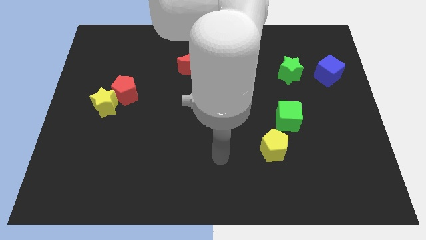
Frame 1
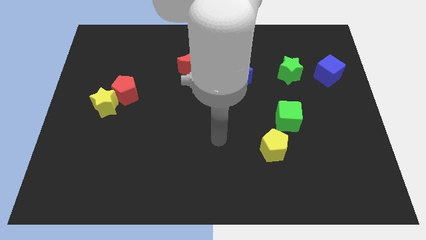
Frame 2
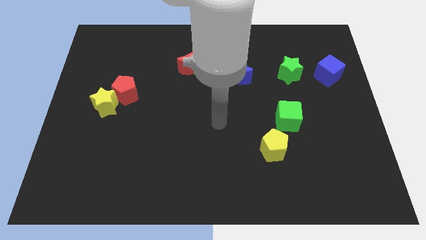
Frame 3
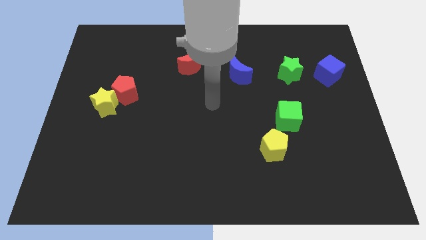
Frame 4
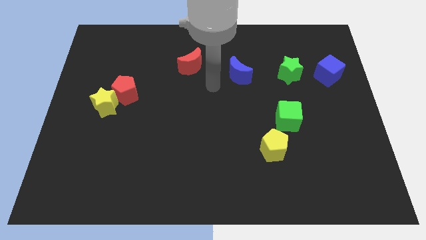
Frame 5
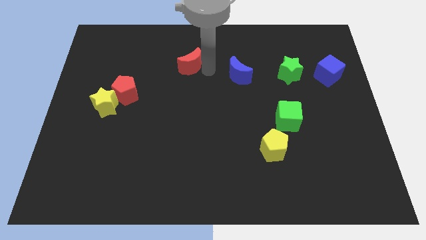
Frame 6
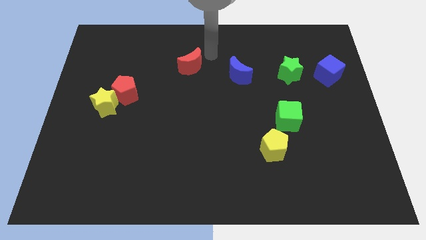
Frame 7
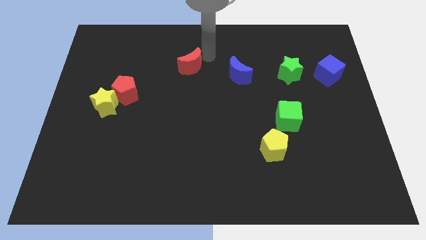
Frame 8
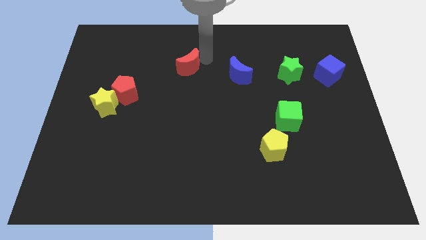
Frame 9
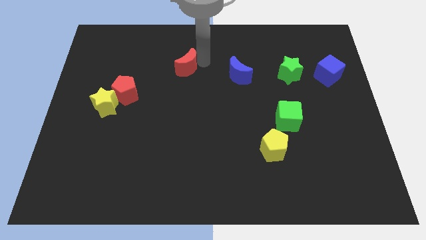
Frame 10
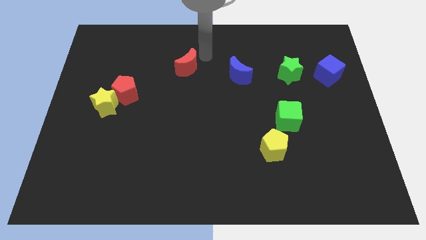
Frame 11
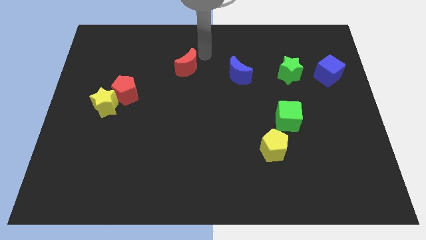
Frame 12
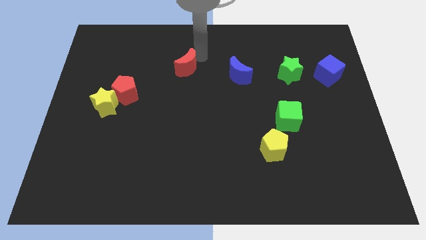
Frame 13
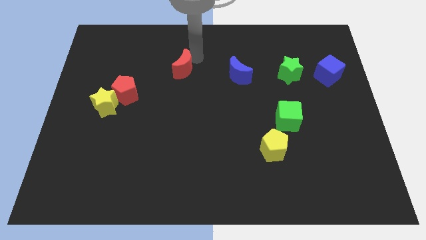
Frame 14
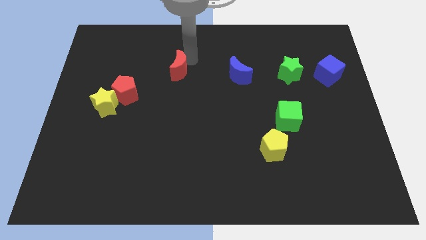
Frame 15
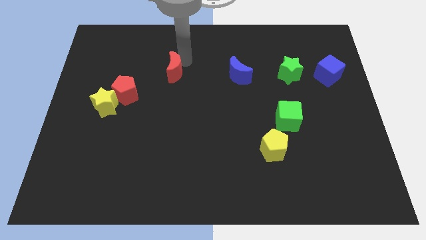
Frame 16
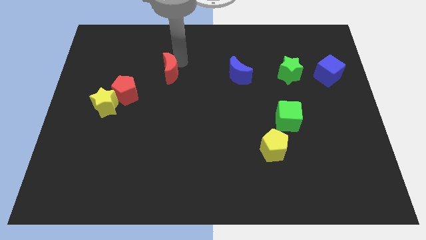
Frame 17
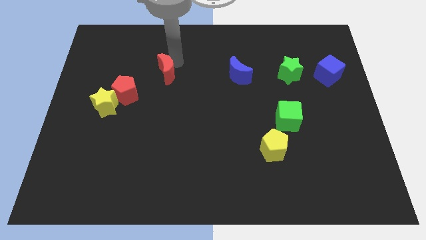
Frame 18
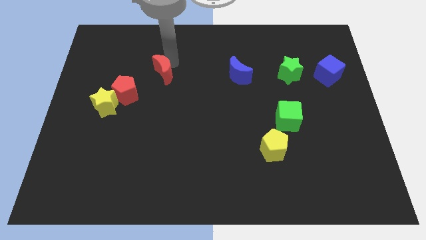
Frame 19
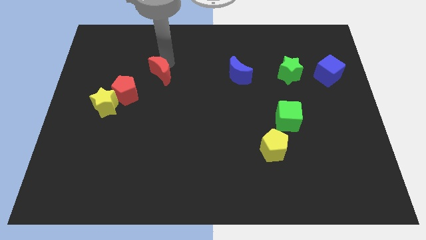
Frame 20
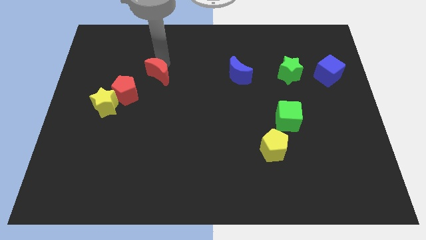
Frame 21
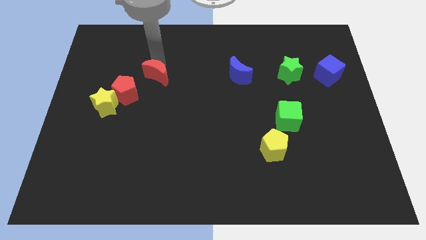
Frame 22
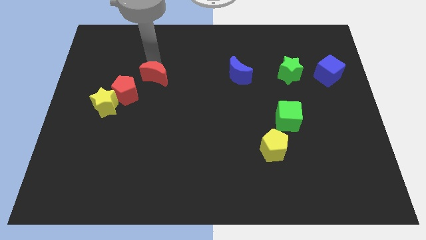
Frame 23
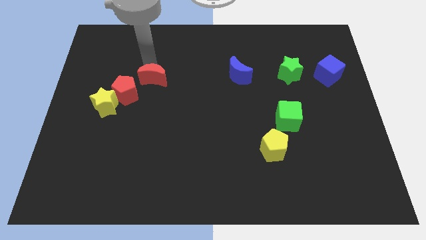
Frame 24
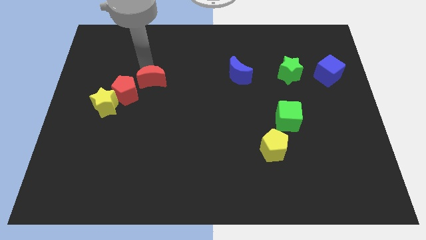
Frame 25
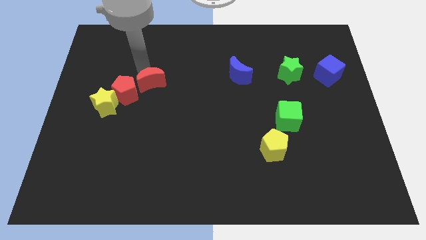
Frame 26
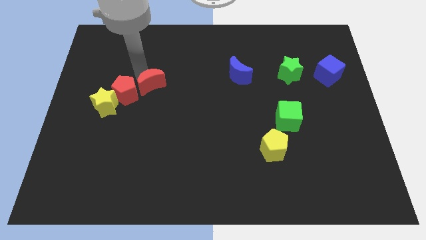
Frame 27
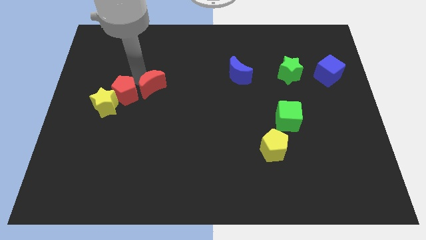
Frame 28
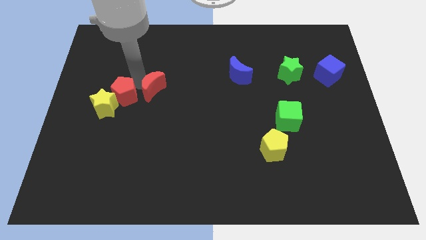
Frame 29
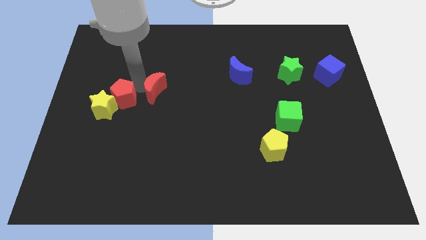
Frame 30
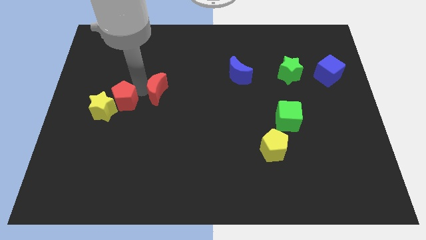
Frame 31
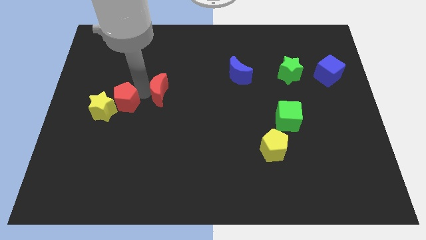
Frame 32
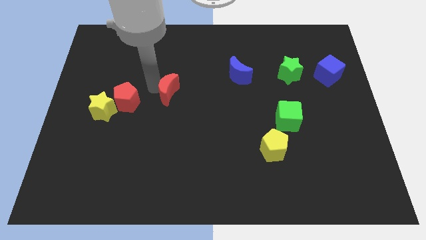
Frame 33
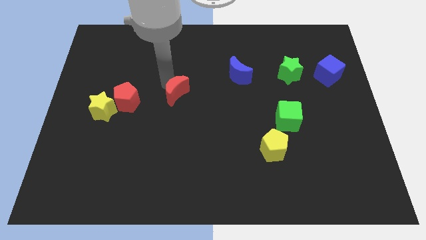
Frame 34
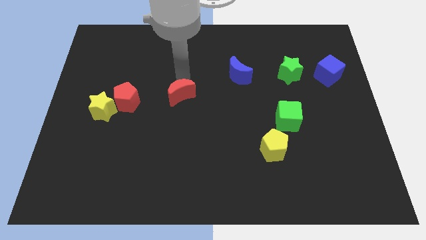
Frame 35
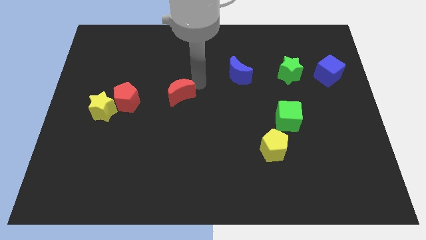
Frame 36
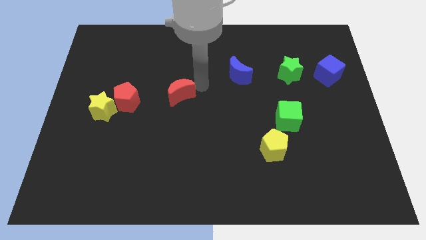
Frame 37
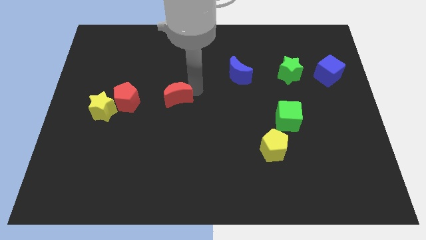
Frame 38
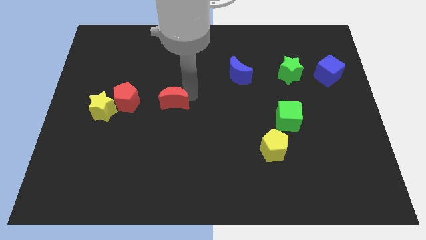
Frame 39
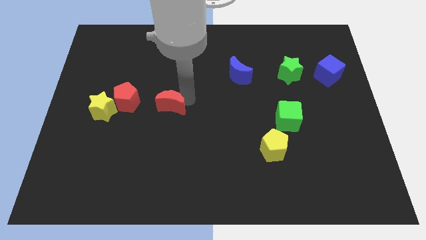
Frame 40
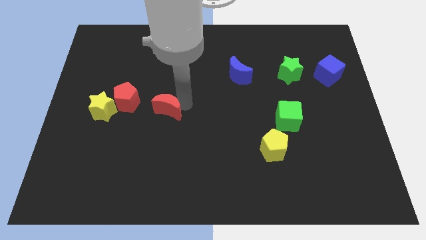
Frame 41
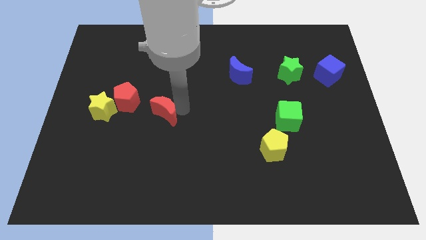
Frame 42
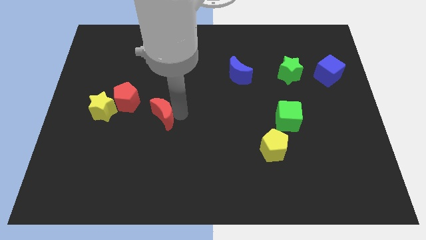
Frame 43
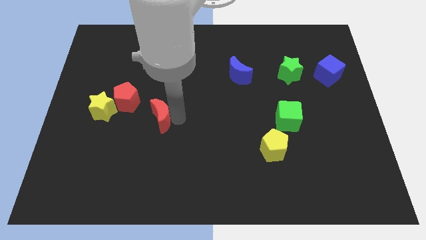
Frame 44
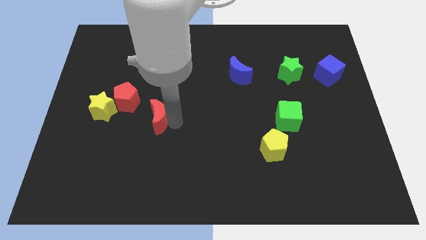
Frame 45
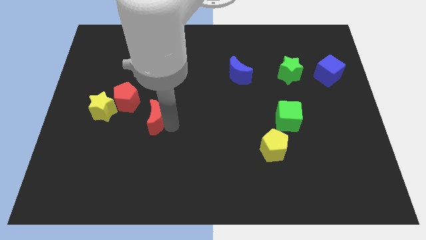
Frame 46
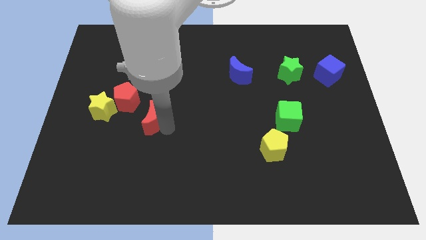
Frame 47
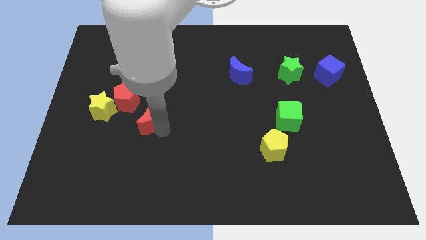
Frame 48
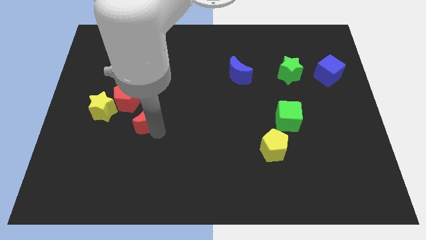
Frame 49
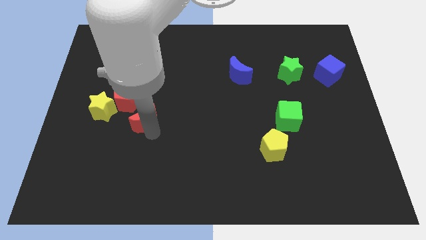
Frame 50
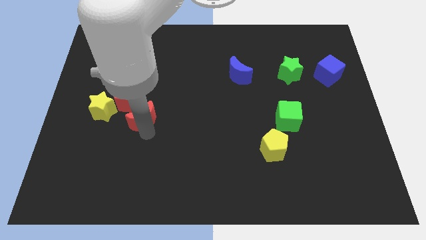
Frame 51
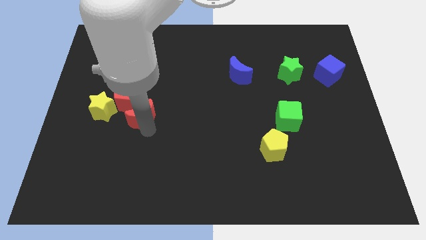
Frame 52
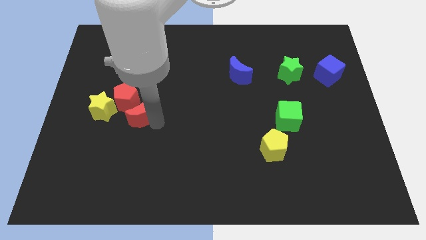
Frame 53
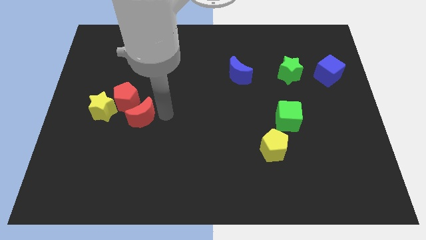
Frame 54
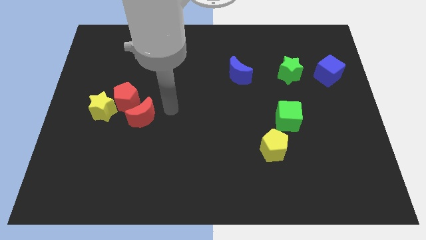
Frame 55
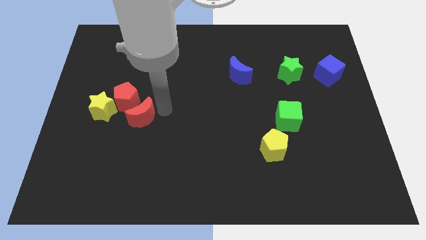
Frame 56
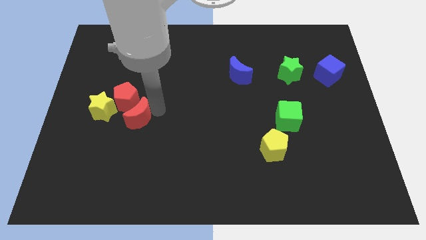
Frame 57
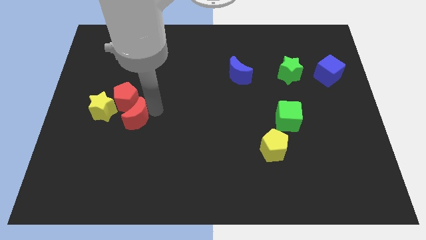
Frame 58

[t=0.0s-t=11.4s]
slide the red moon down and then left

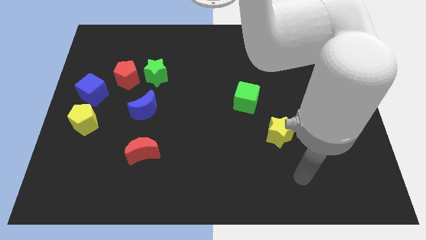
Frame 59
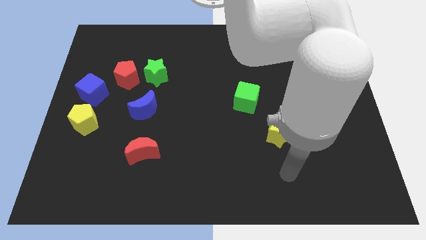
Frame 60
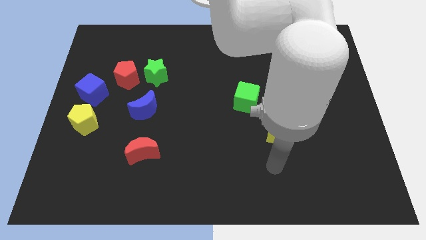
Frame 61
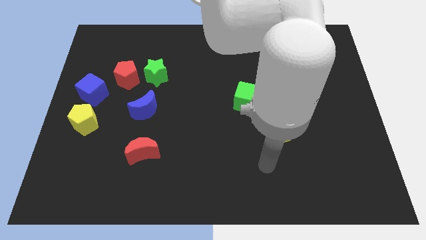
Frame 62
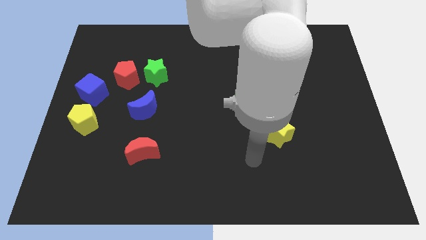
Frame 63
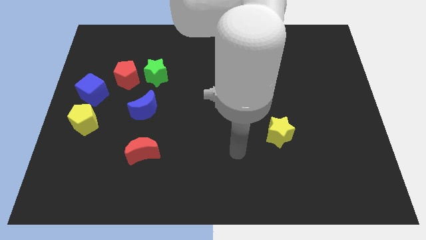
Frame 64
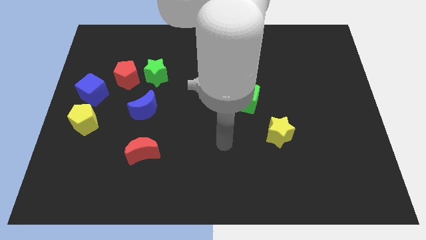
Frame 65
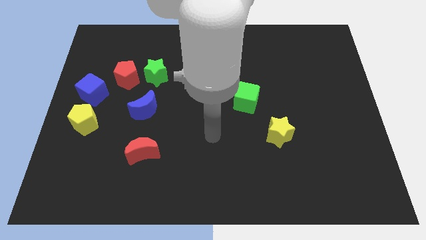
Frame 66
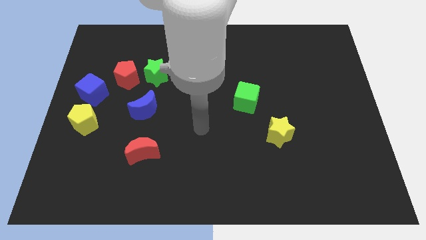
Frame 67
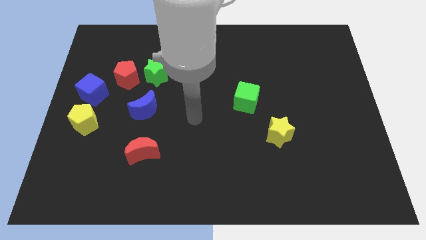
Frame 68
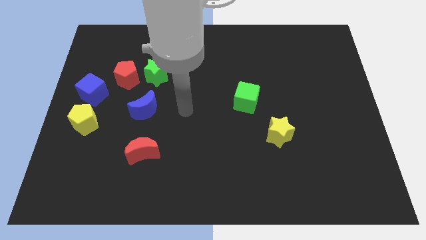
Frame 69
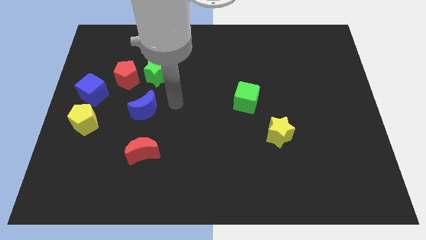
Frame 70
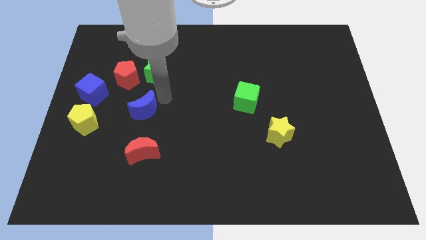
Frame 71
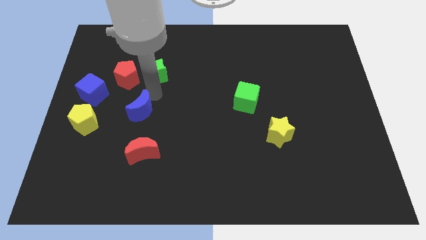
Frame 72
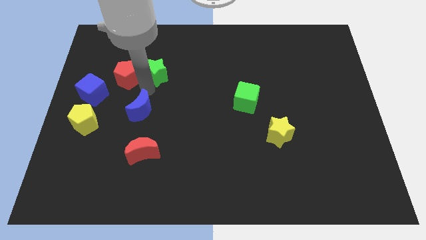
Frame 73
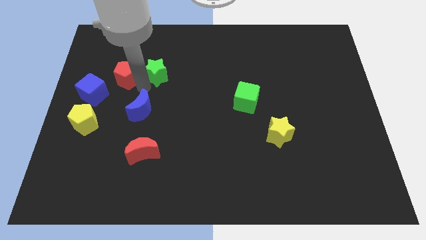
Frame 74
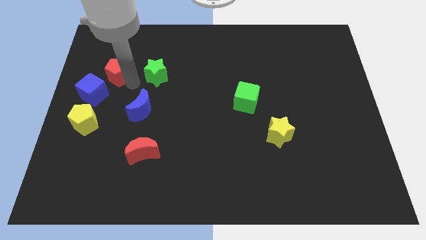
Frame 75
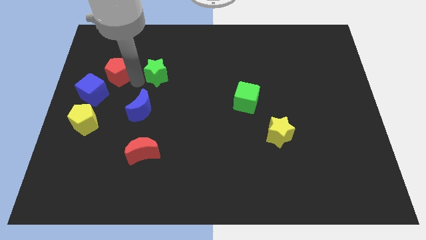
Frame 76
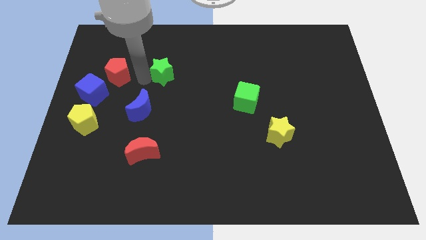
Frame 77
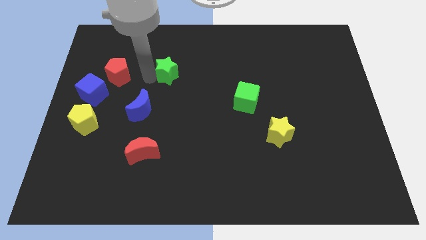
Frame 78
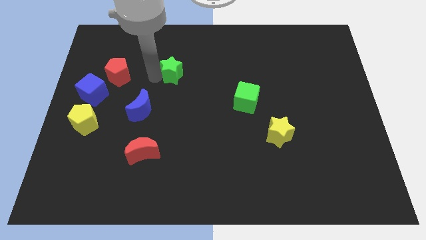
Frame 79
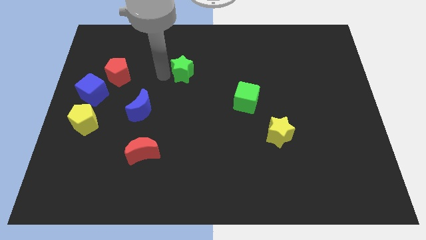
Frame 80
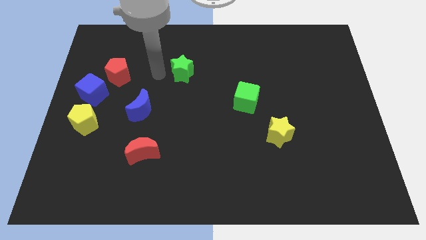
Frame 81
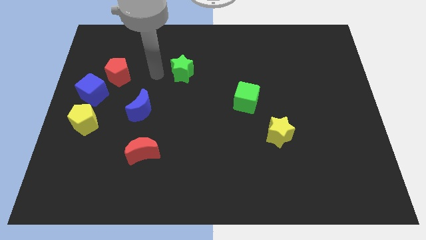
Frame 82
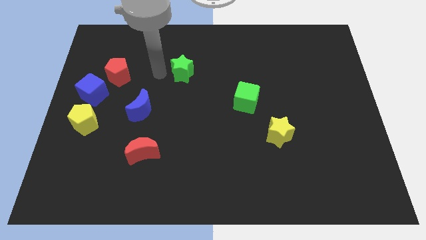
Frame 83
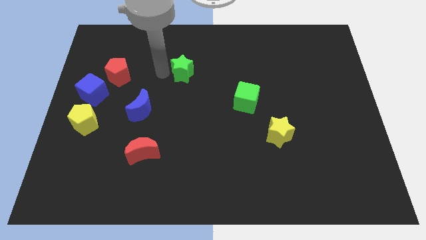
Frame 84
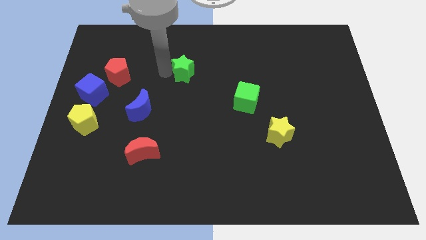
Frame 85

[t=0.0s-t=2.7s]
slightly slide the green star to the right

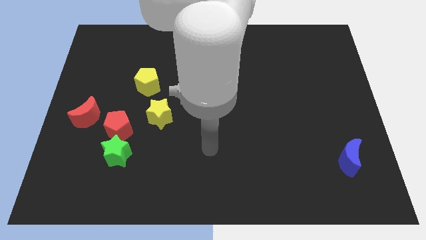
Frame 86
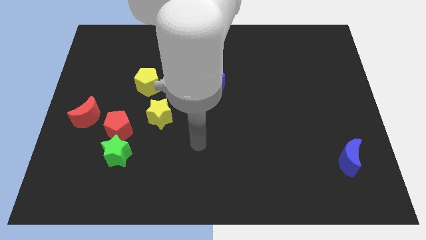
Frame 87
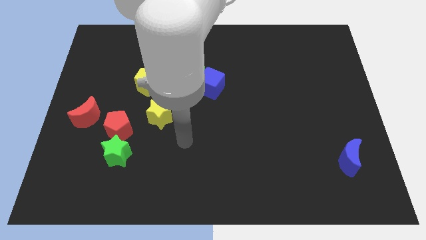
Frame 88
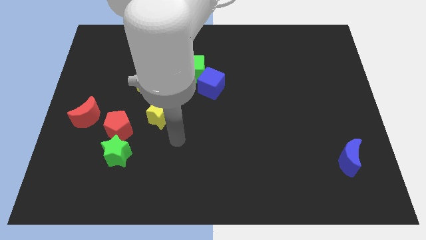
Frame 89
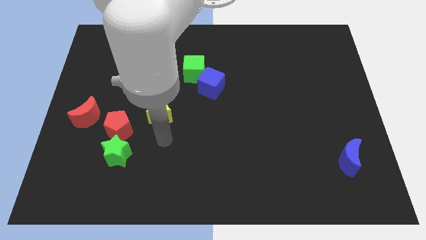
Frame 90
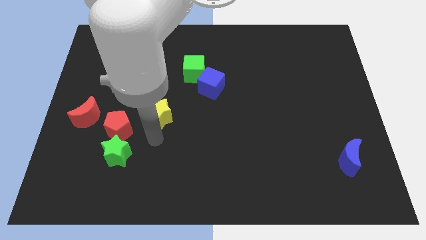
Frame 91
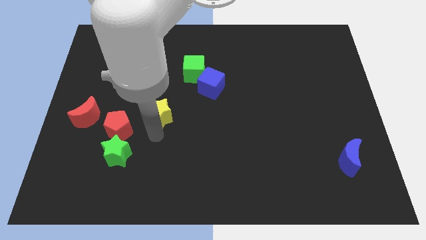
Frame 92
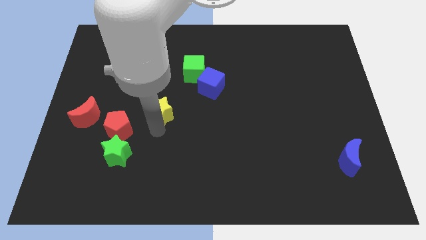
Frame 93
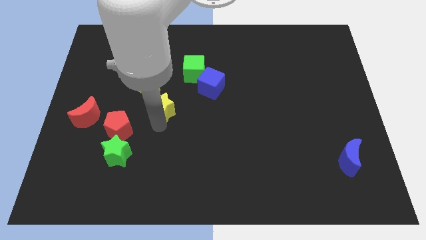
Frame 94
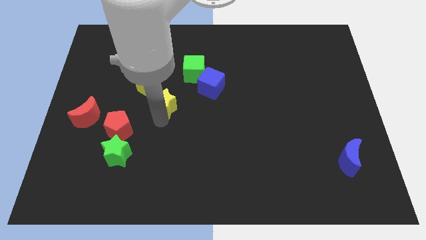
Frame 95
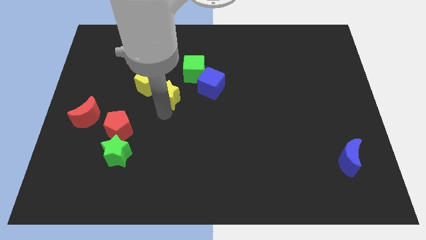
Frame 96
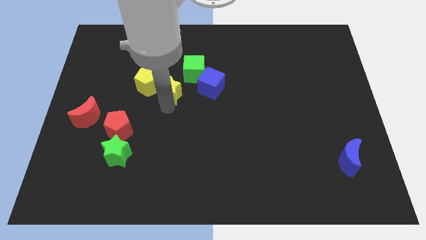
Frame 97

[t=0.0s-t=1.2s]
push the yellow star a little bit upwards
